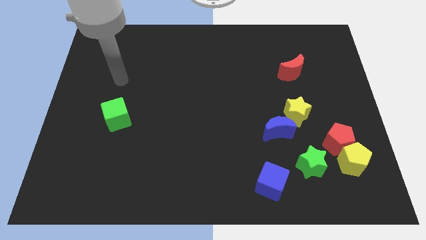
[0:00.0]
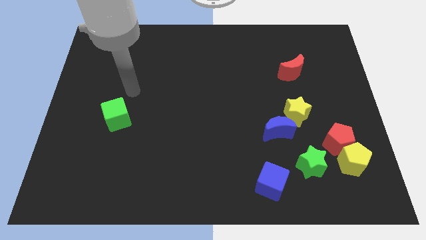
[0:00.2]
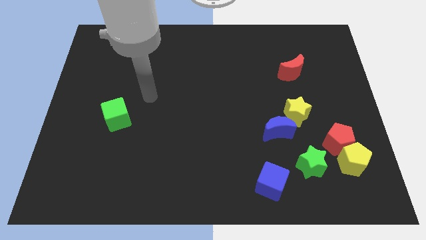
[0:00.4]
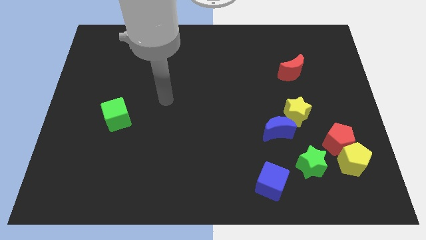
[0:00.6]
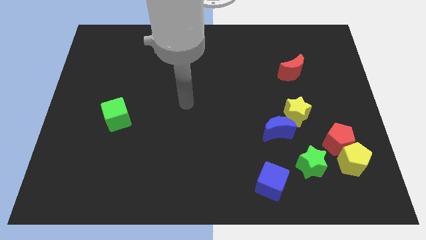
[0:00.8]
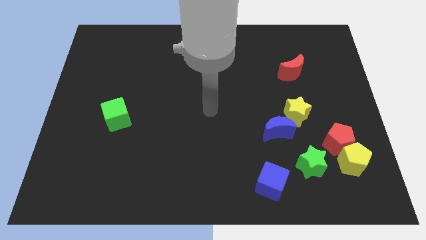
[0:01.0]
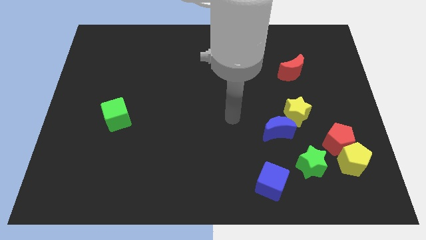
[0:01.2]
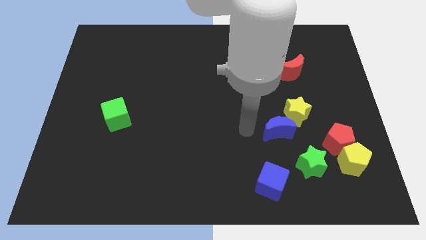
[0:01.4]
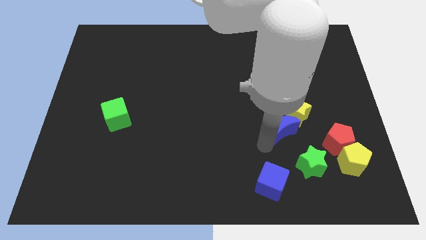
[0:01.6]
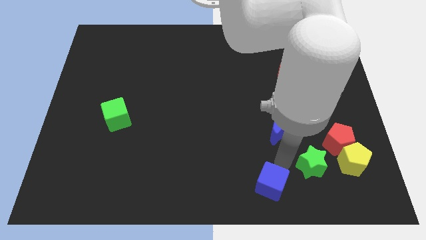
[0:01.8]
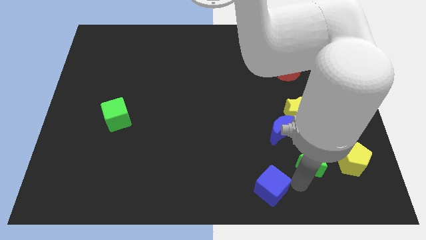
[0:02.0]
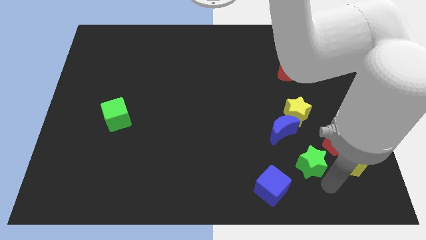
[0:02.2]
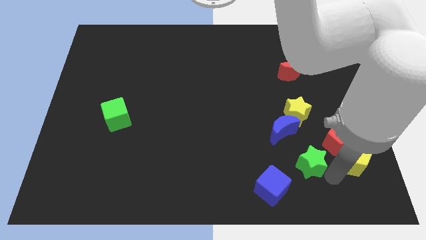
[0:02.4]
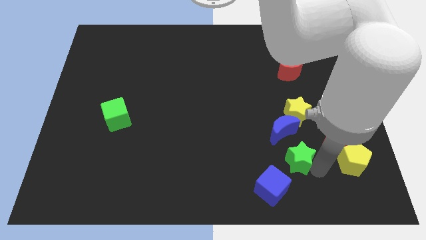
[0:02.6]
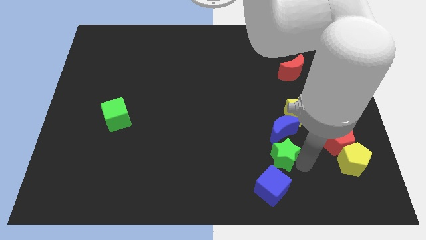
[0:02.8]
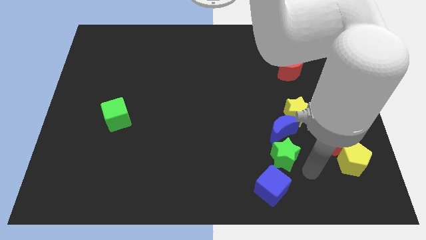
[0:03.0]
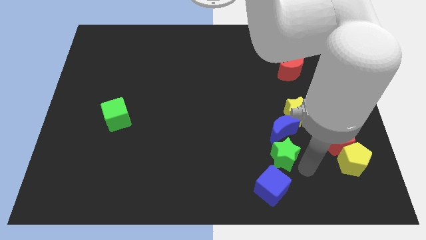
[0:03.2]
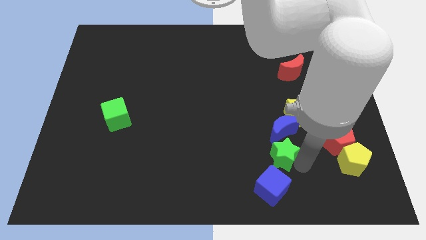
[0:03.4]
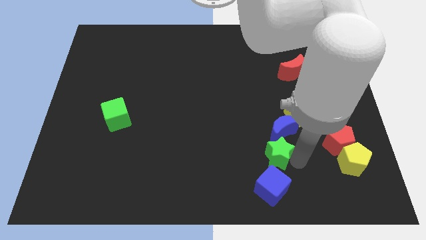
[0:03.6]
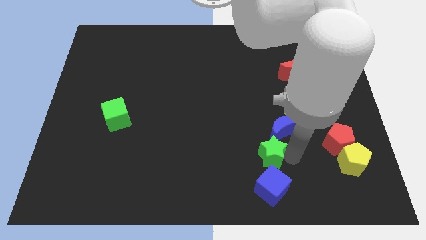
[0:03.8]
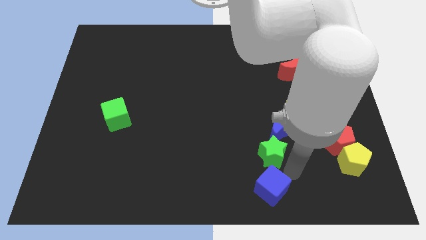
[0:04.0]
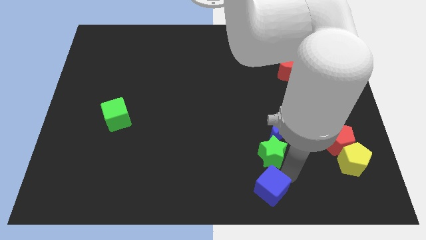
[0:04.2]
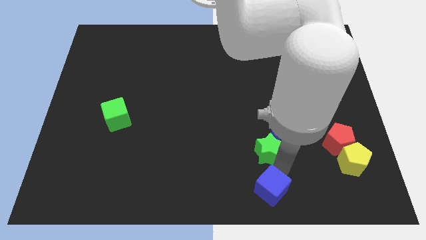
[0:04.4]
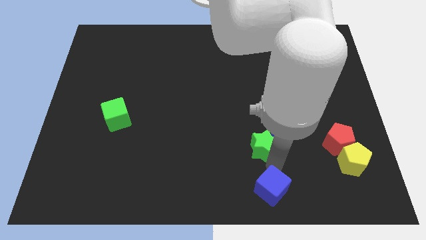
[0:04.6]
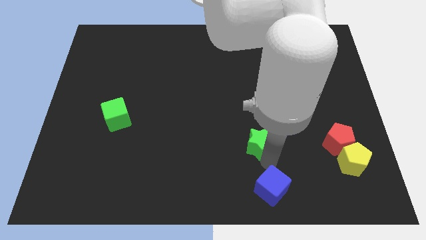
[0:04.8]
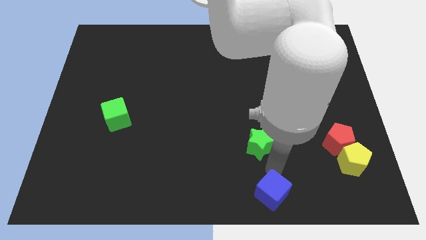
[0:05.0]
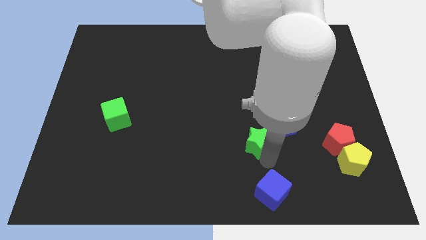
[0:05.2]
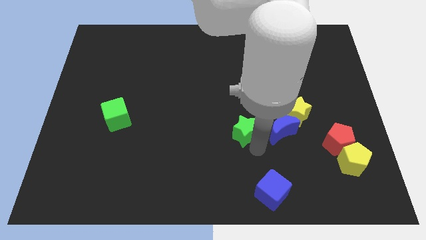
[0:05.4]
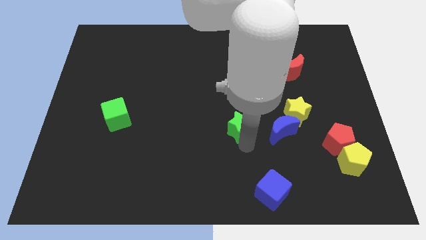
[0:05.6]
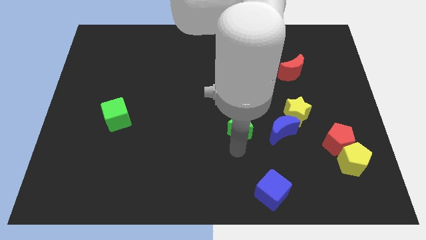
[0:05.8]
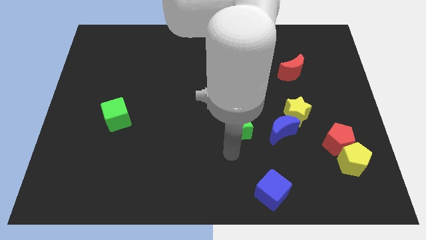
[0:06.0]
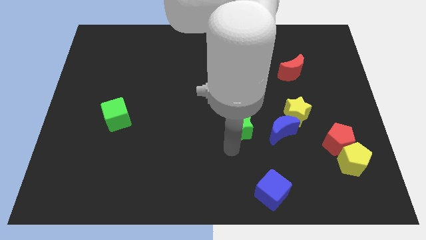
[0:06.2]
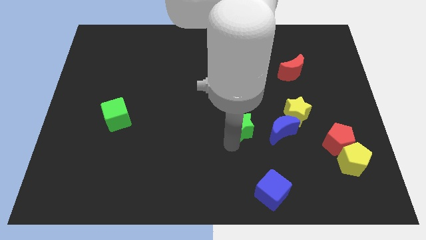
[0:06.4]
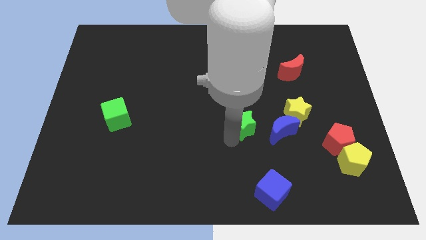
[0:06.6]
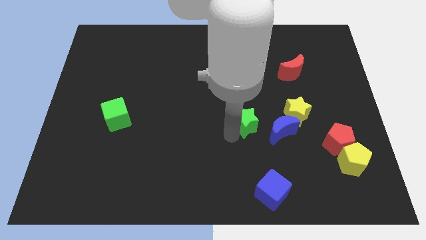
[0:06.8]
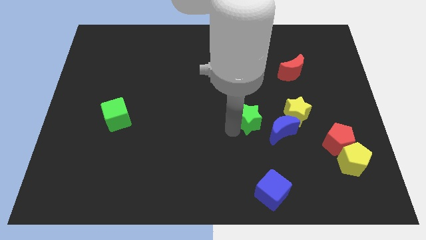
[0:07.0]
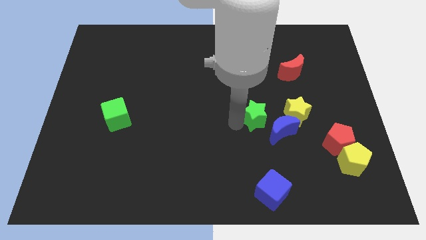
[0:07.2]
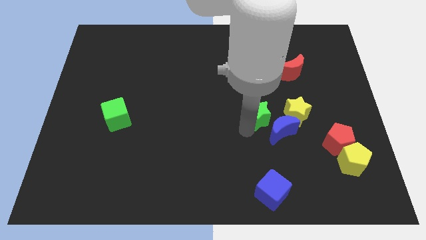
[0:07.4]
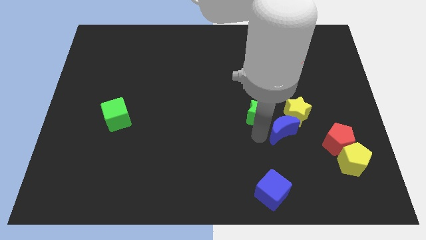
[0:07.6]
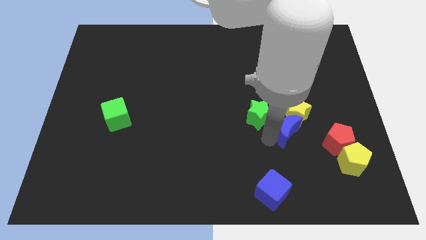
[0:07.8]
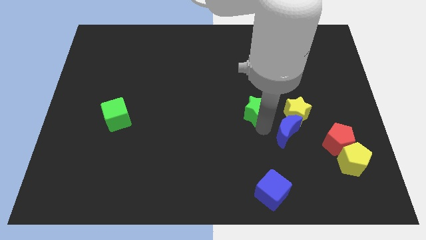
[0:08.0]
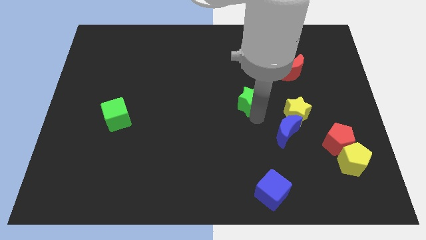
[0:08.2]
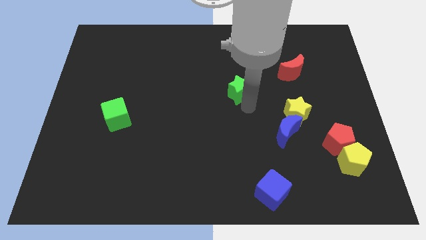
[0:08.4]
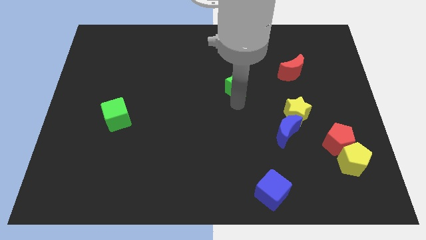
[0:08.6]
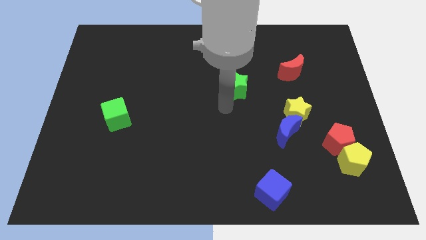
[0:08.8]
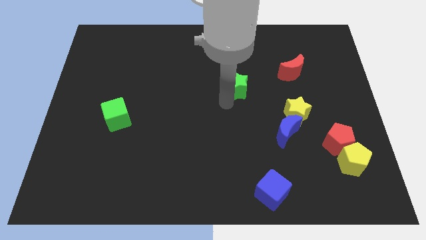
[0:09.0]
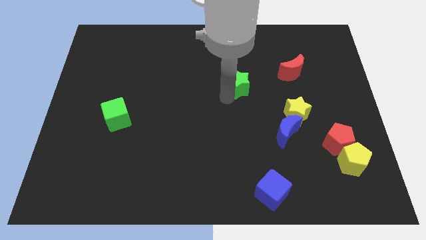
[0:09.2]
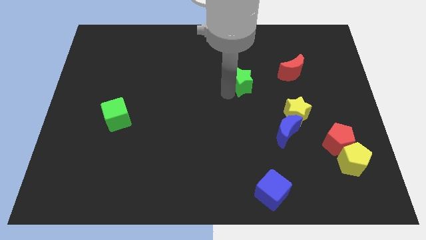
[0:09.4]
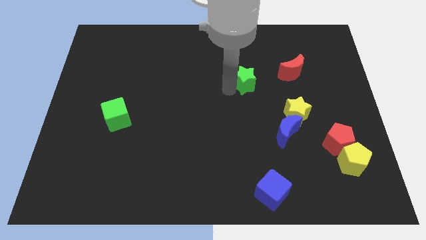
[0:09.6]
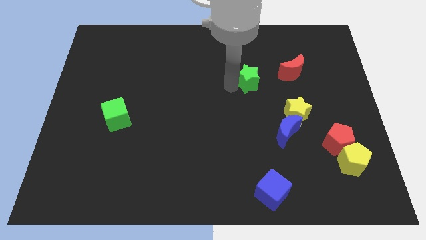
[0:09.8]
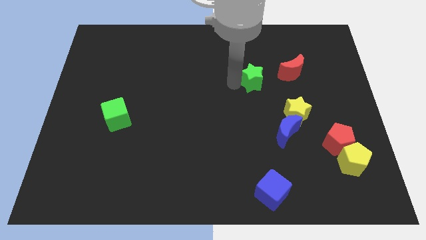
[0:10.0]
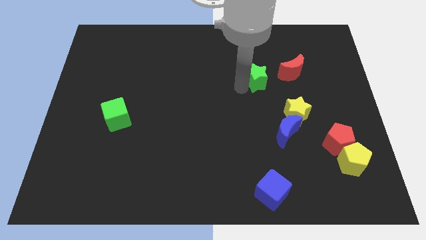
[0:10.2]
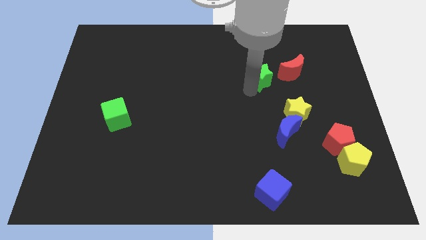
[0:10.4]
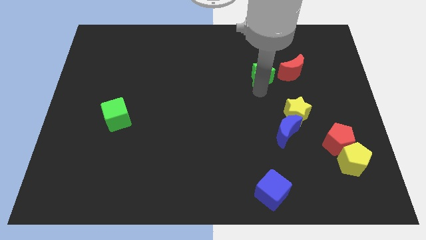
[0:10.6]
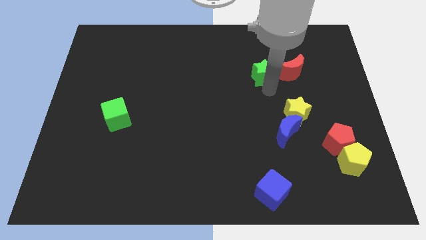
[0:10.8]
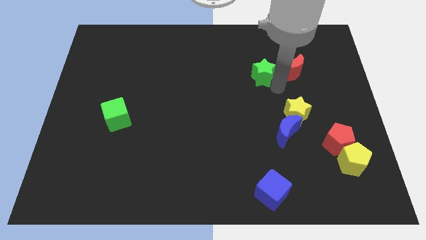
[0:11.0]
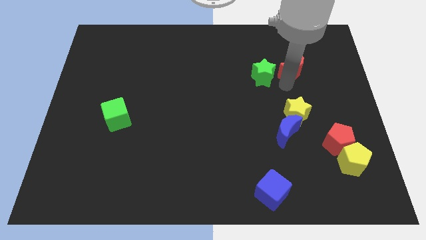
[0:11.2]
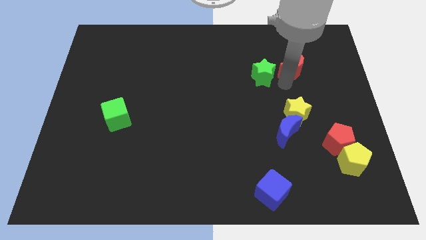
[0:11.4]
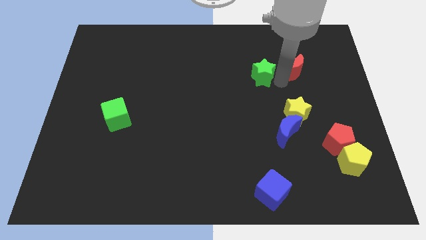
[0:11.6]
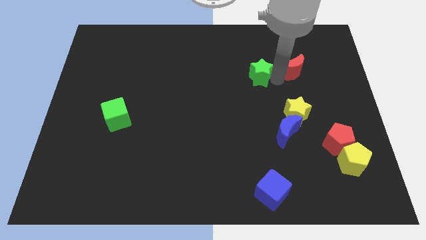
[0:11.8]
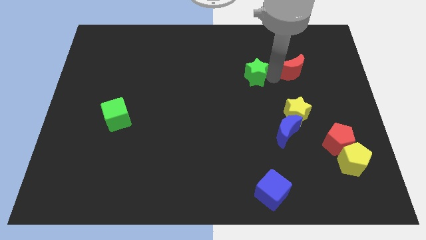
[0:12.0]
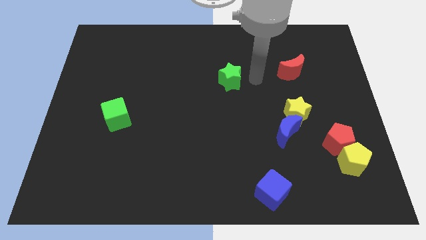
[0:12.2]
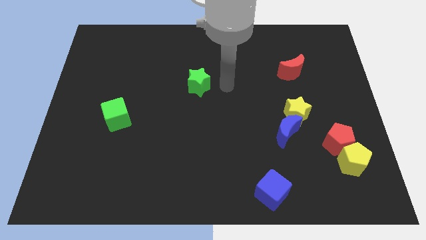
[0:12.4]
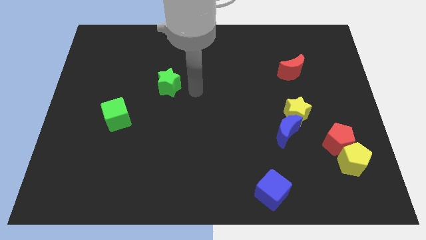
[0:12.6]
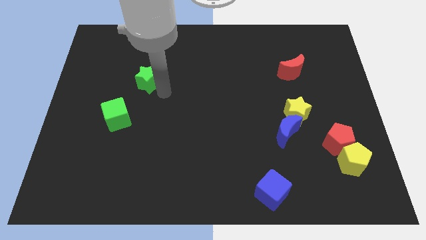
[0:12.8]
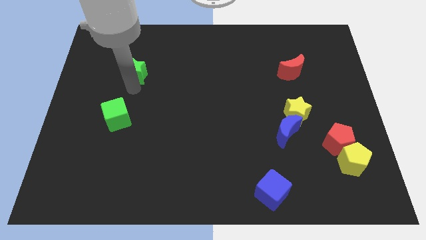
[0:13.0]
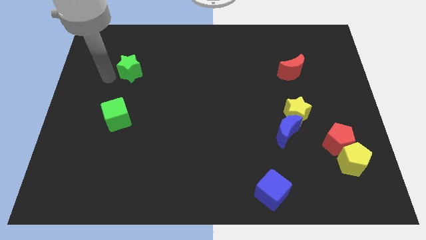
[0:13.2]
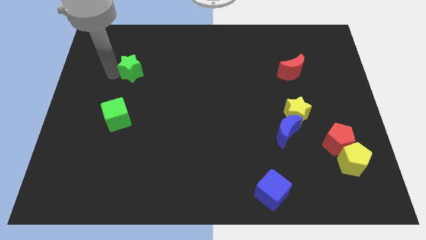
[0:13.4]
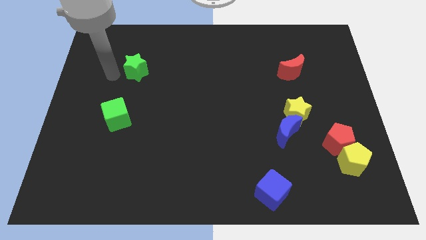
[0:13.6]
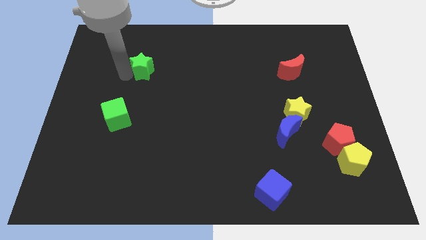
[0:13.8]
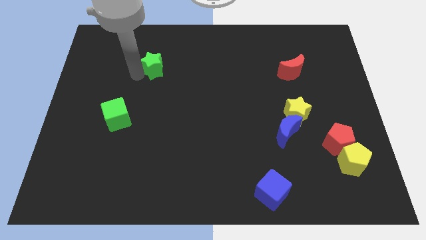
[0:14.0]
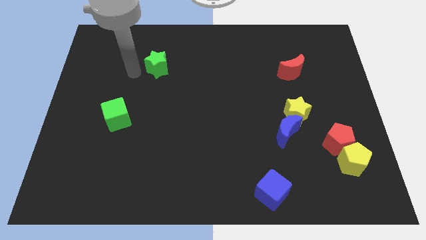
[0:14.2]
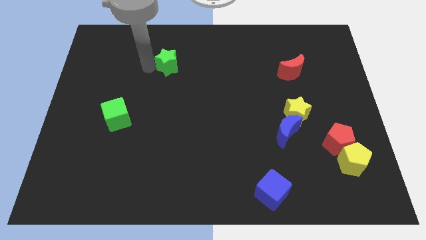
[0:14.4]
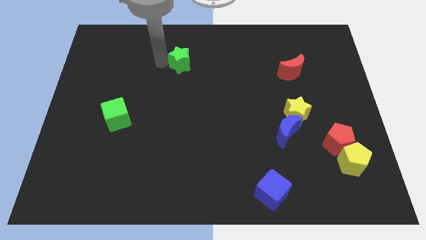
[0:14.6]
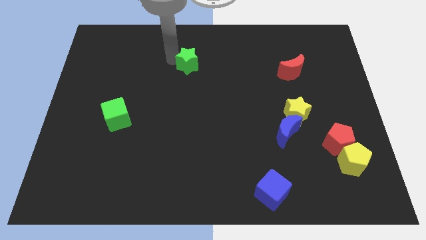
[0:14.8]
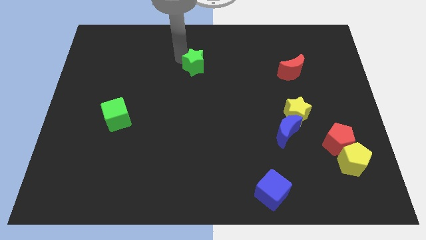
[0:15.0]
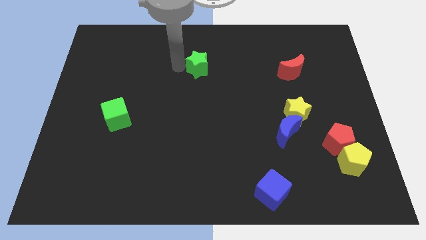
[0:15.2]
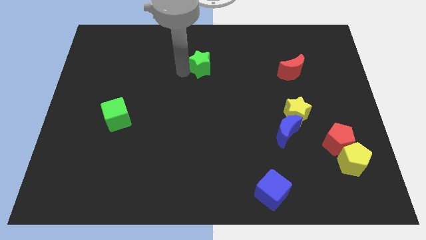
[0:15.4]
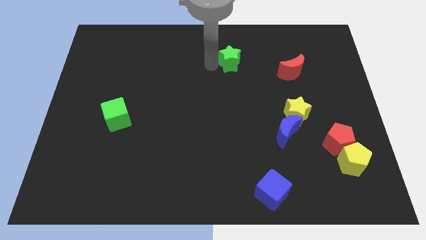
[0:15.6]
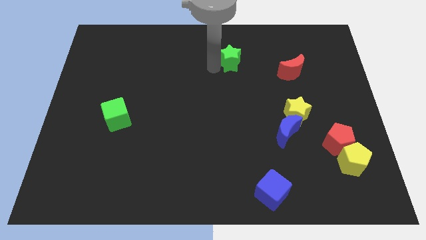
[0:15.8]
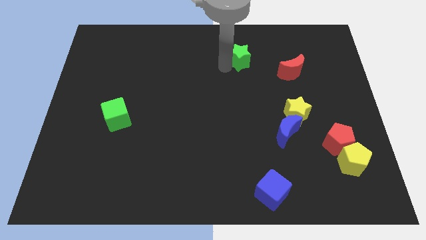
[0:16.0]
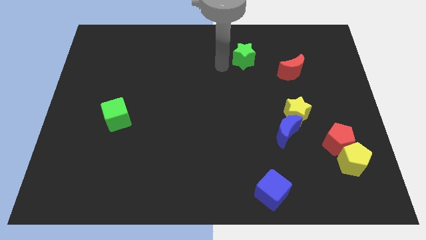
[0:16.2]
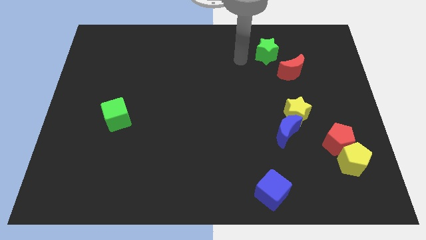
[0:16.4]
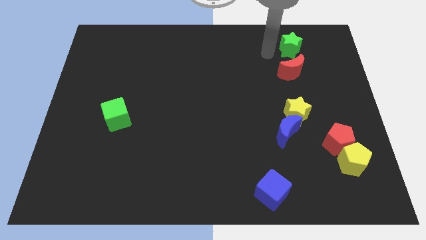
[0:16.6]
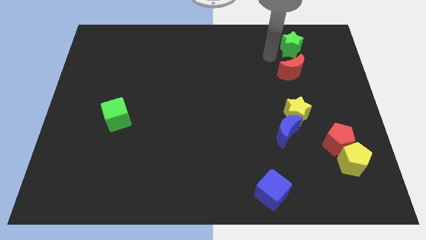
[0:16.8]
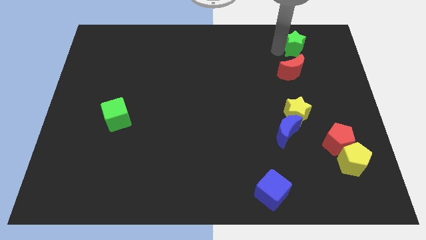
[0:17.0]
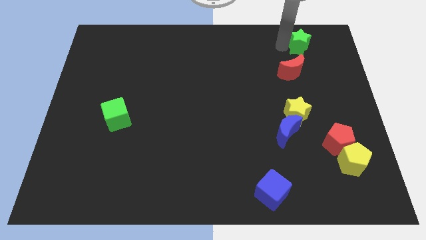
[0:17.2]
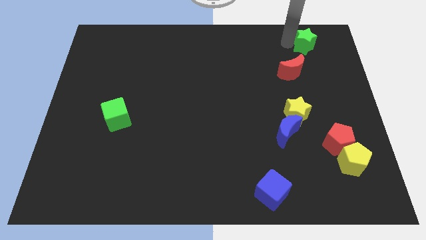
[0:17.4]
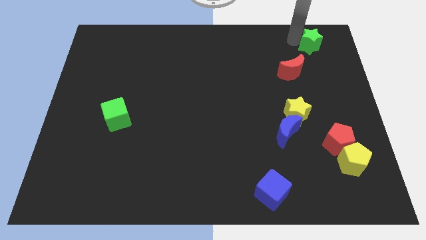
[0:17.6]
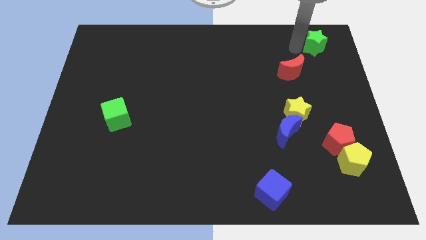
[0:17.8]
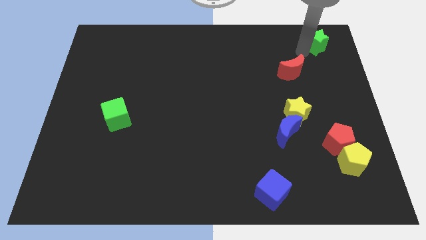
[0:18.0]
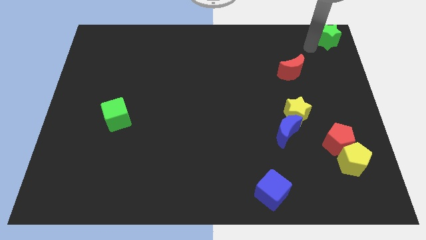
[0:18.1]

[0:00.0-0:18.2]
move the green star to the top right
